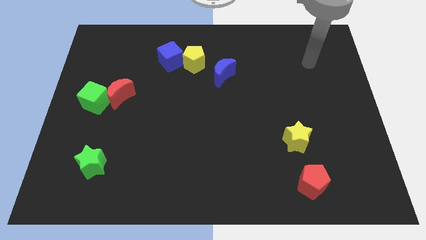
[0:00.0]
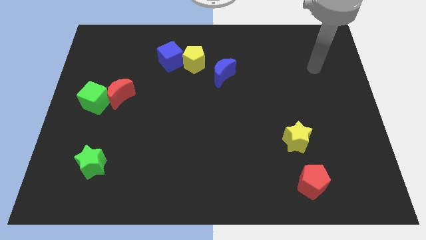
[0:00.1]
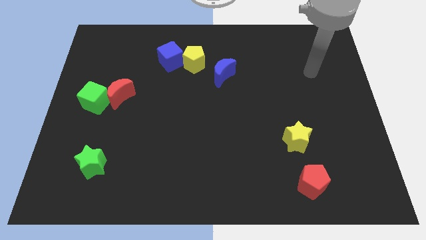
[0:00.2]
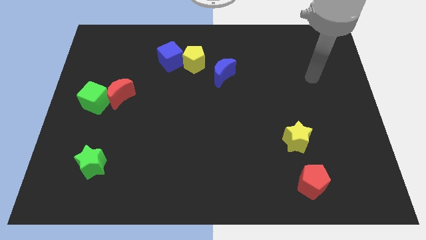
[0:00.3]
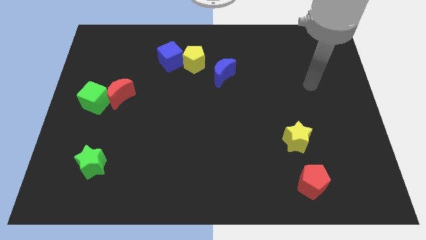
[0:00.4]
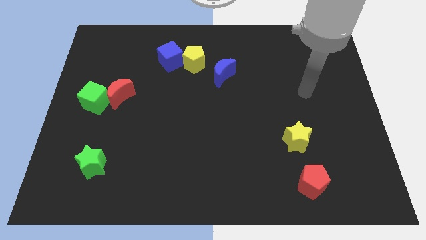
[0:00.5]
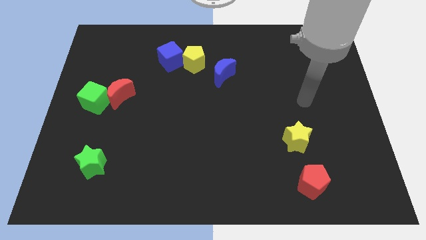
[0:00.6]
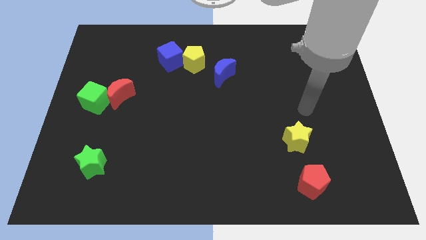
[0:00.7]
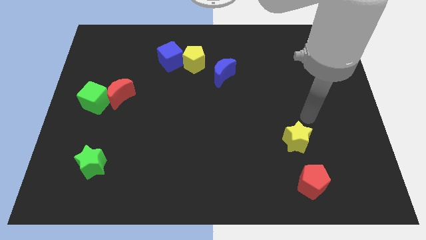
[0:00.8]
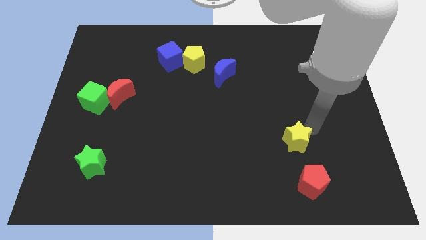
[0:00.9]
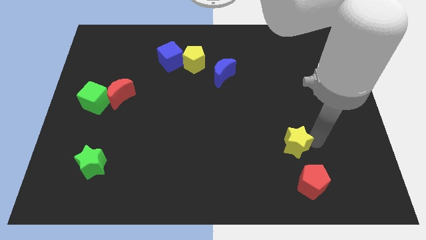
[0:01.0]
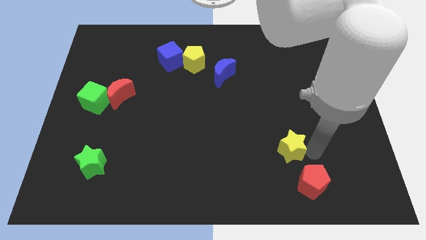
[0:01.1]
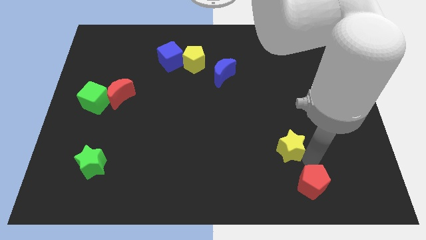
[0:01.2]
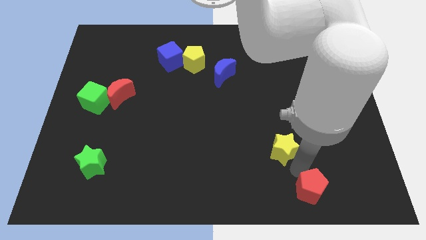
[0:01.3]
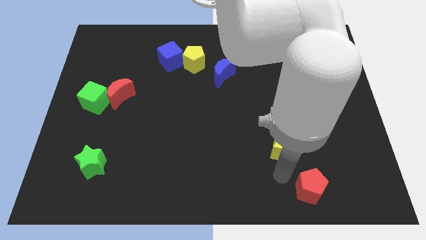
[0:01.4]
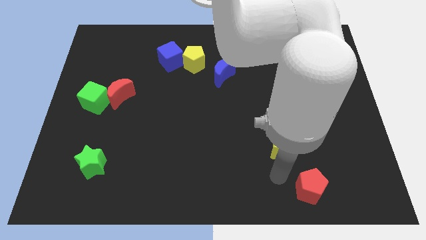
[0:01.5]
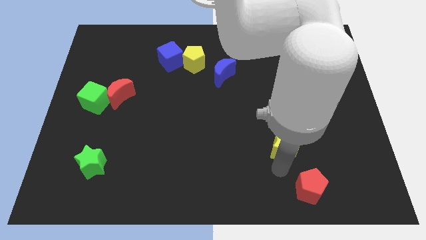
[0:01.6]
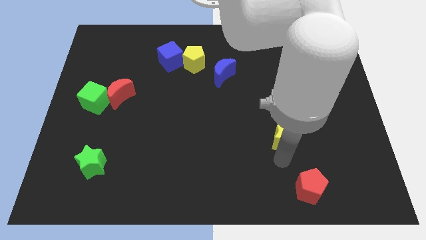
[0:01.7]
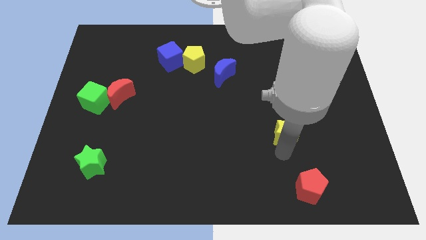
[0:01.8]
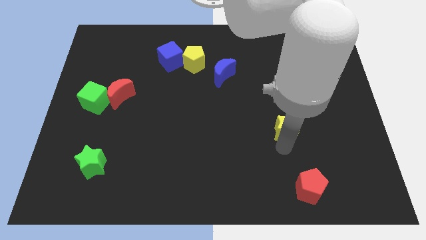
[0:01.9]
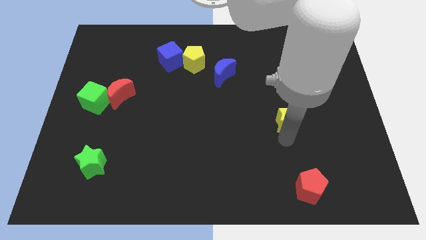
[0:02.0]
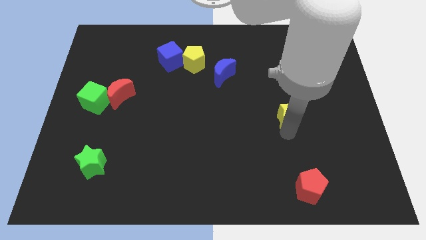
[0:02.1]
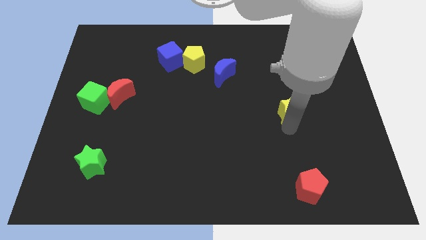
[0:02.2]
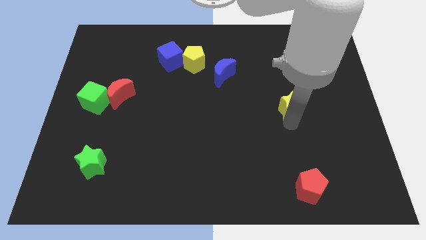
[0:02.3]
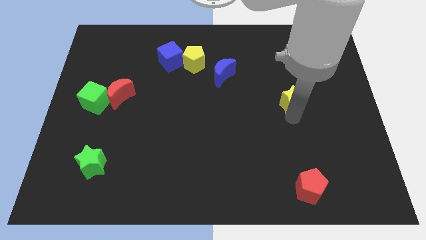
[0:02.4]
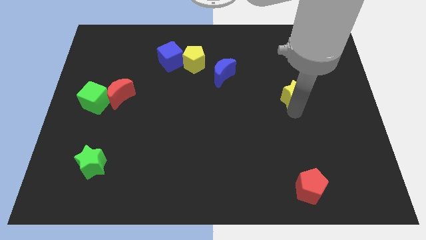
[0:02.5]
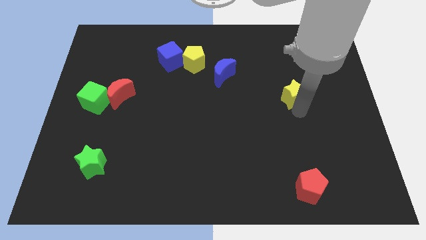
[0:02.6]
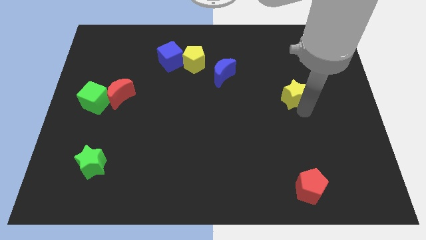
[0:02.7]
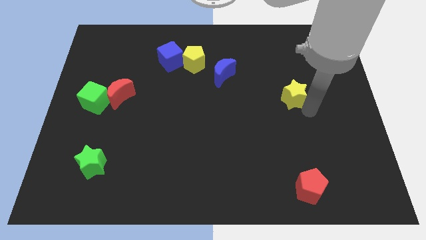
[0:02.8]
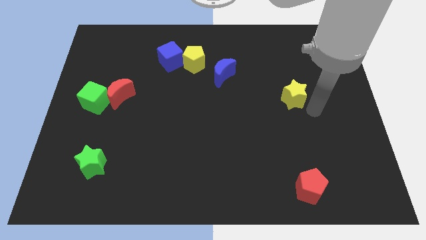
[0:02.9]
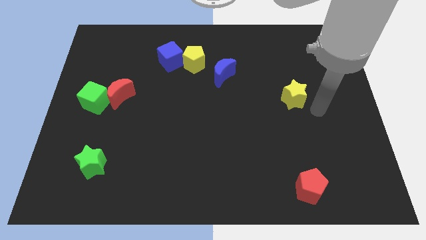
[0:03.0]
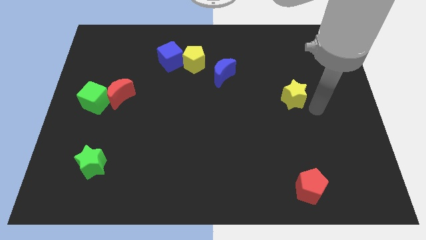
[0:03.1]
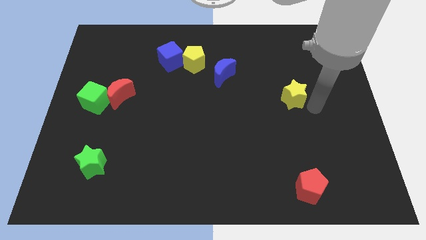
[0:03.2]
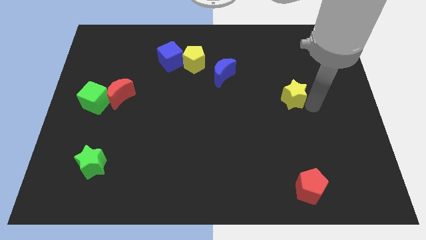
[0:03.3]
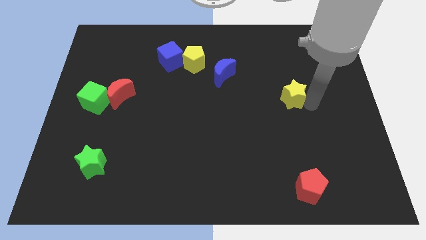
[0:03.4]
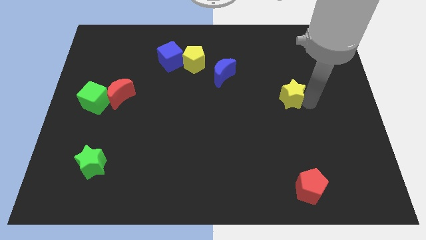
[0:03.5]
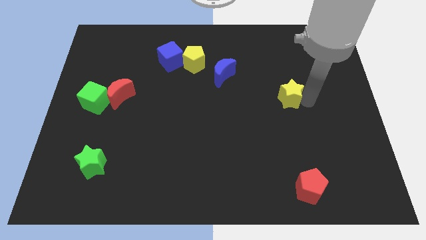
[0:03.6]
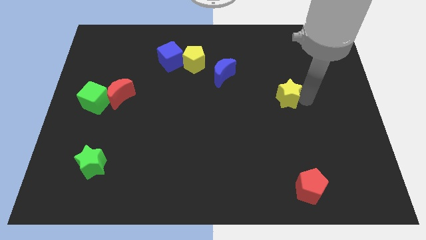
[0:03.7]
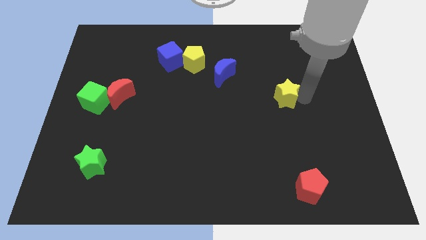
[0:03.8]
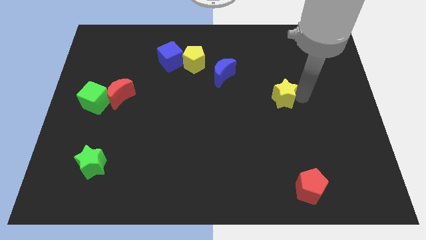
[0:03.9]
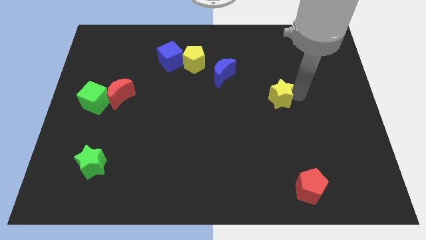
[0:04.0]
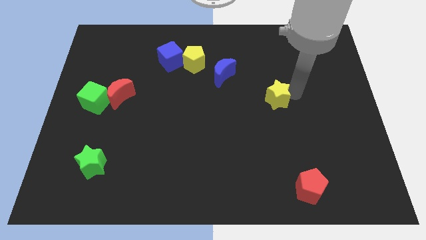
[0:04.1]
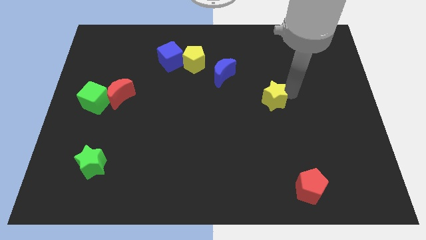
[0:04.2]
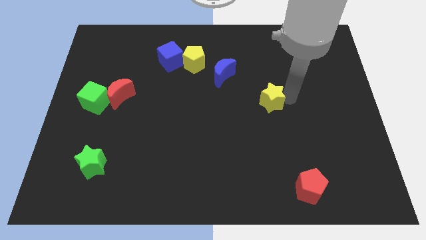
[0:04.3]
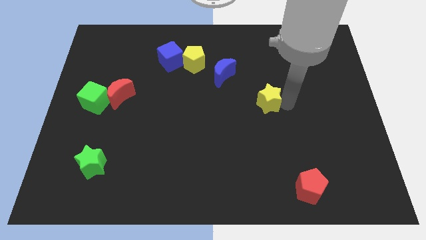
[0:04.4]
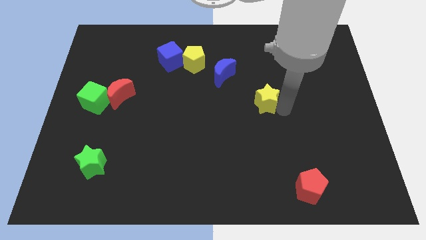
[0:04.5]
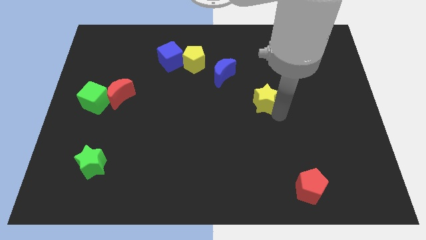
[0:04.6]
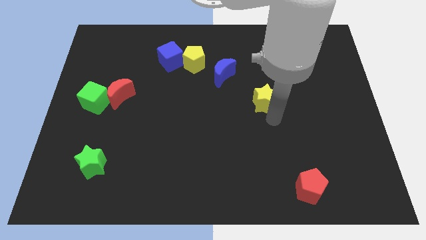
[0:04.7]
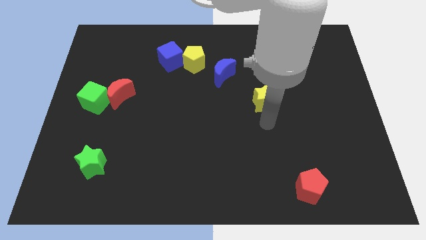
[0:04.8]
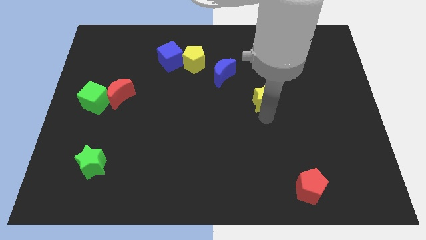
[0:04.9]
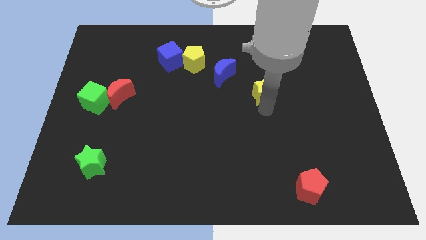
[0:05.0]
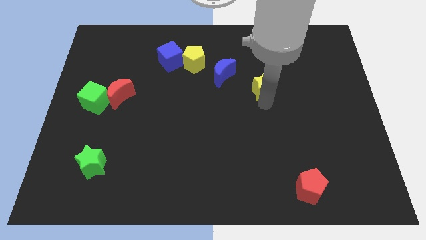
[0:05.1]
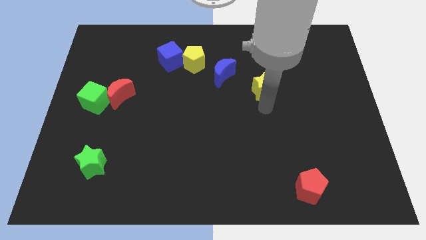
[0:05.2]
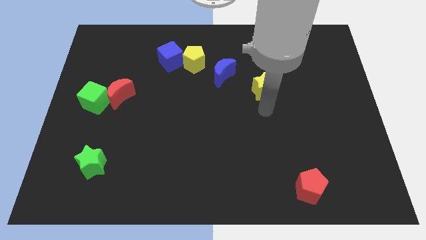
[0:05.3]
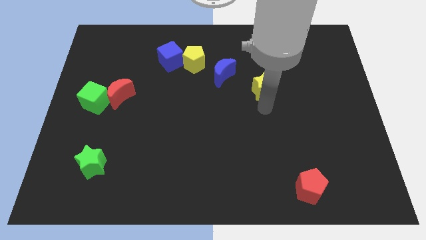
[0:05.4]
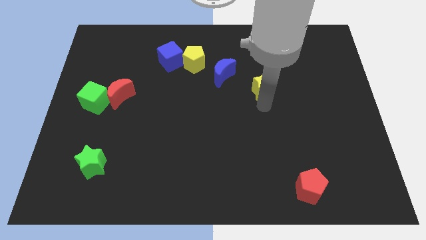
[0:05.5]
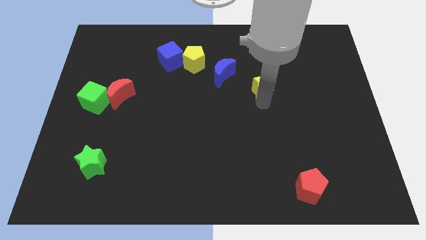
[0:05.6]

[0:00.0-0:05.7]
put the yellow star to the right of the blue moon

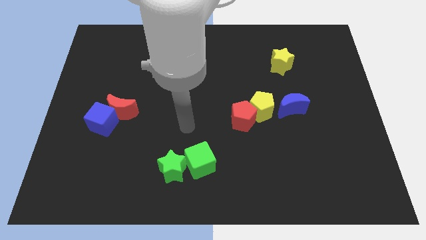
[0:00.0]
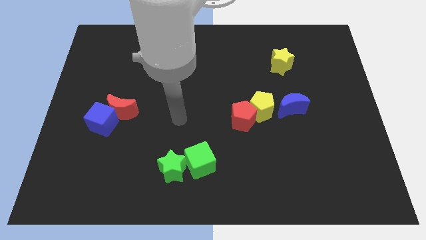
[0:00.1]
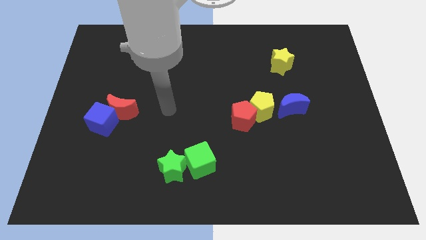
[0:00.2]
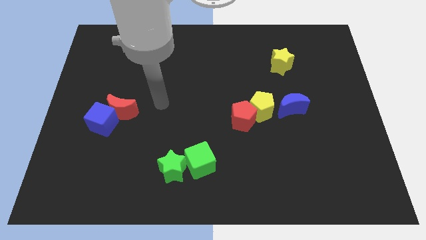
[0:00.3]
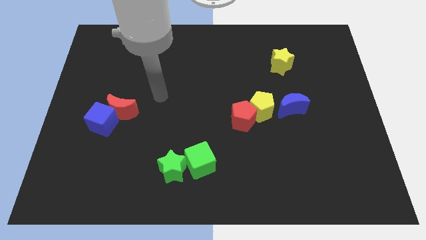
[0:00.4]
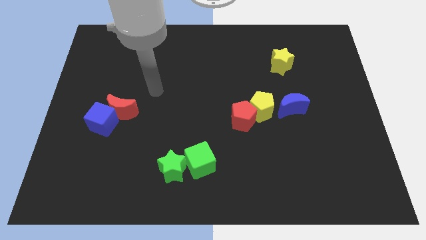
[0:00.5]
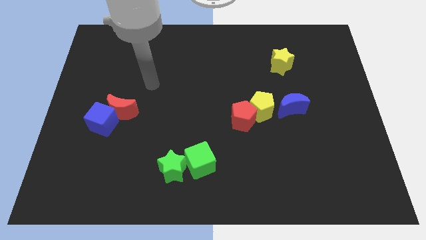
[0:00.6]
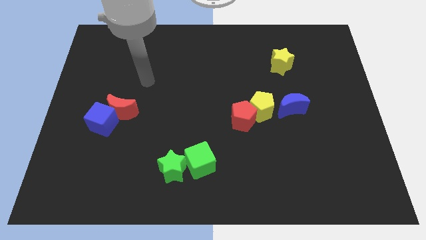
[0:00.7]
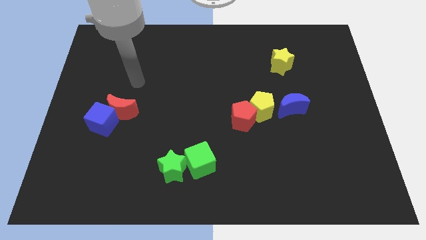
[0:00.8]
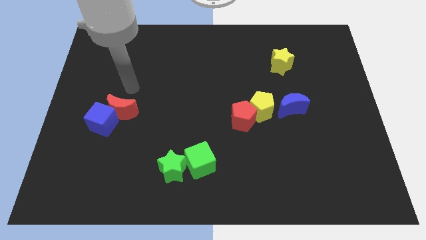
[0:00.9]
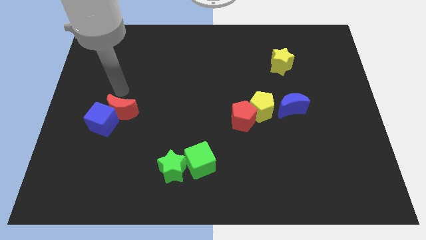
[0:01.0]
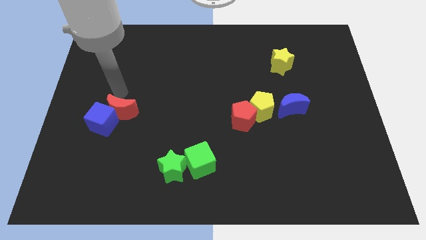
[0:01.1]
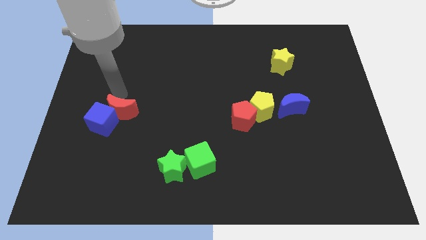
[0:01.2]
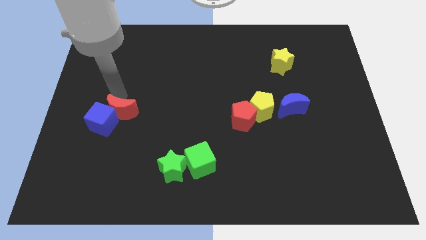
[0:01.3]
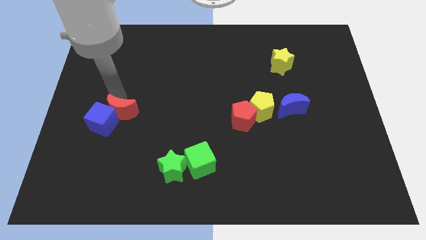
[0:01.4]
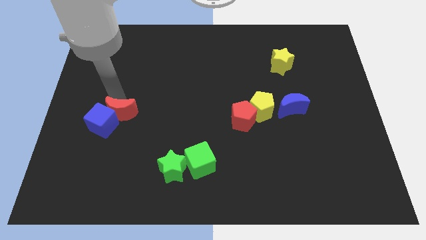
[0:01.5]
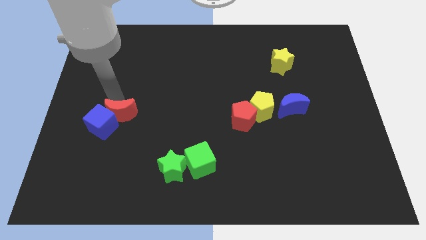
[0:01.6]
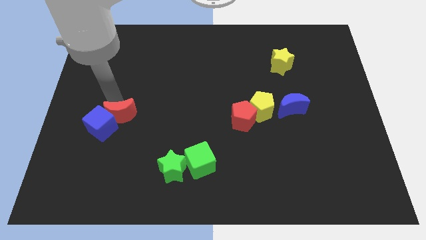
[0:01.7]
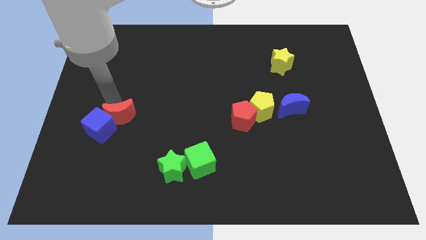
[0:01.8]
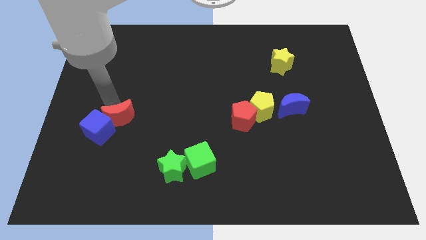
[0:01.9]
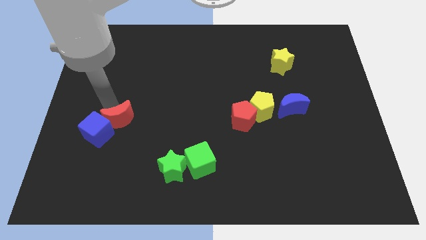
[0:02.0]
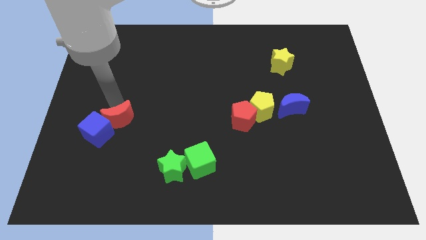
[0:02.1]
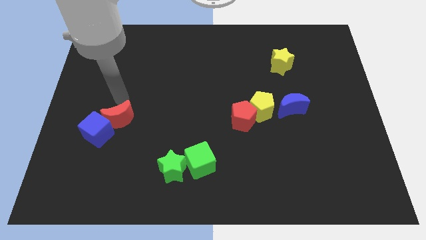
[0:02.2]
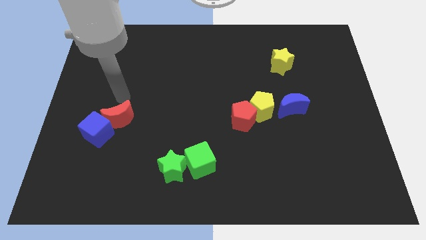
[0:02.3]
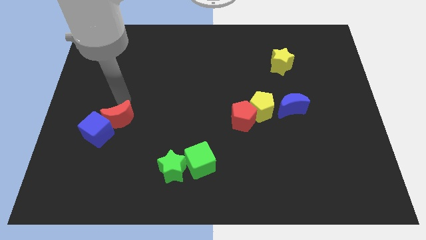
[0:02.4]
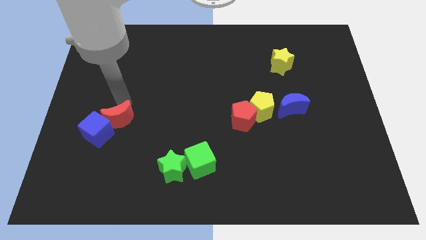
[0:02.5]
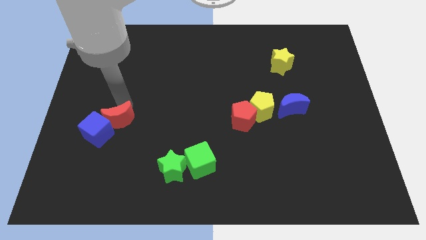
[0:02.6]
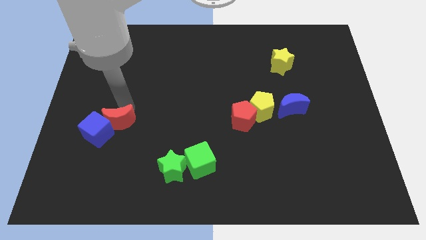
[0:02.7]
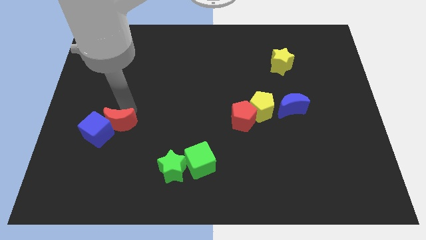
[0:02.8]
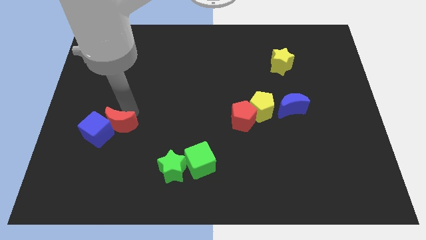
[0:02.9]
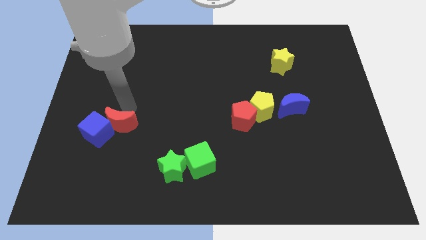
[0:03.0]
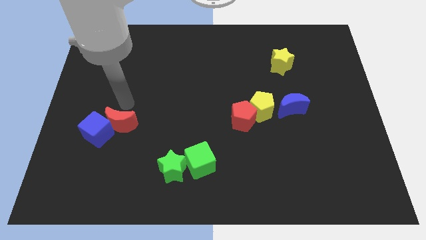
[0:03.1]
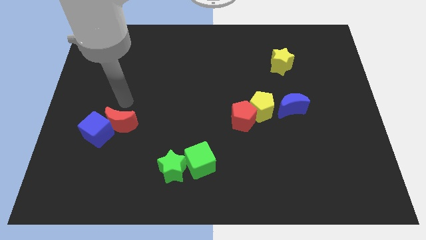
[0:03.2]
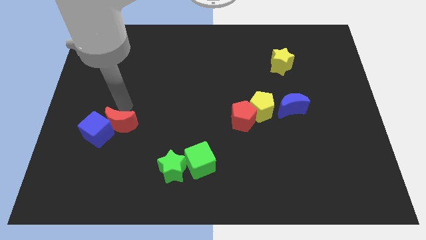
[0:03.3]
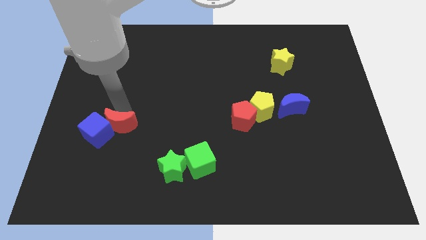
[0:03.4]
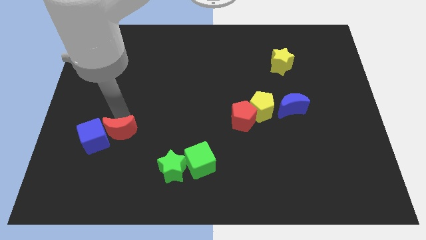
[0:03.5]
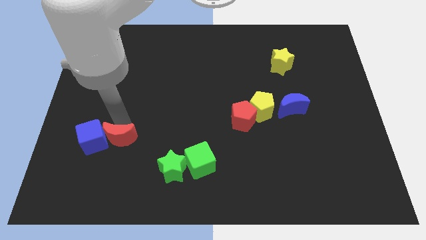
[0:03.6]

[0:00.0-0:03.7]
slide the red moon diagonally down and to the right of the blue cube
